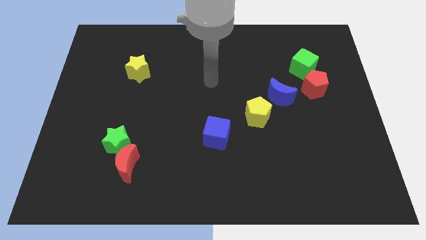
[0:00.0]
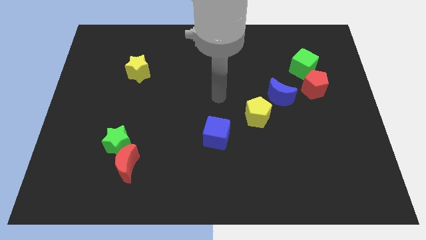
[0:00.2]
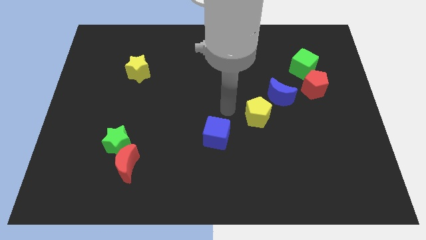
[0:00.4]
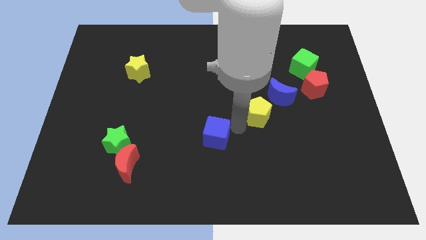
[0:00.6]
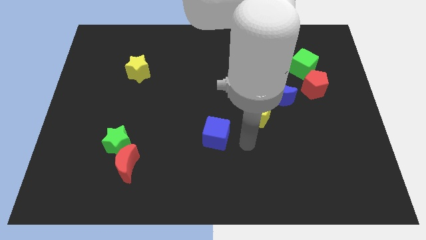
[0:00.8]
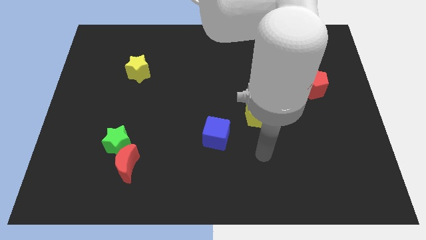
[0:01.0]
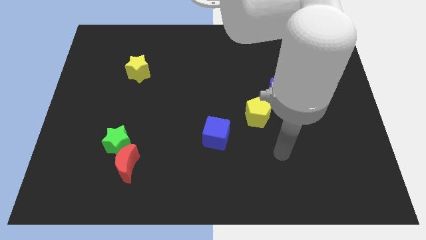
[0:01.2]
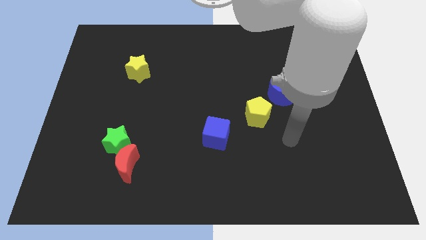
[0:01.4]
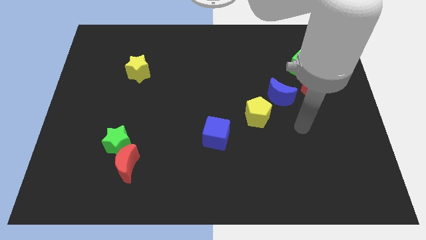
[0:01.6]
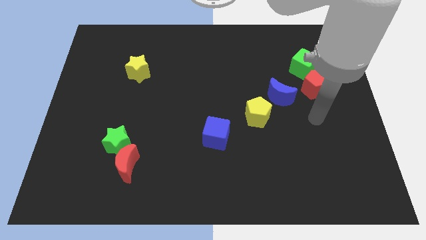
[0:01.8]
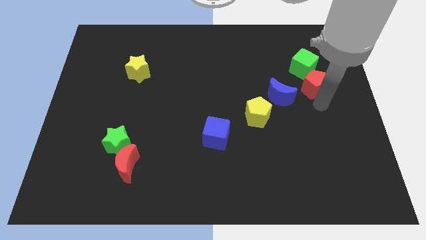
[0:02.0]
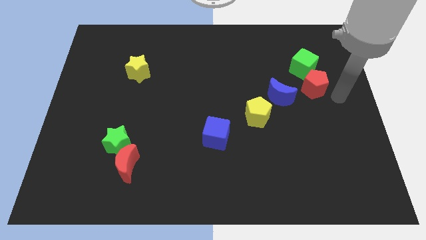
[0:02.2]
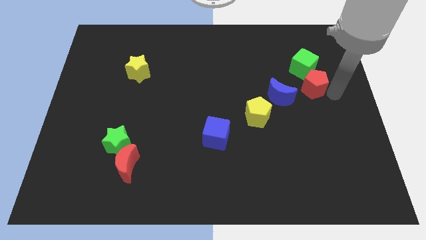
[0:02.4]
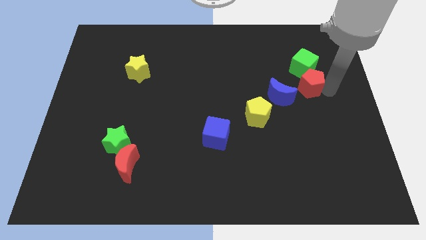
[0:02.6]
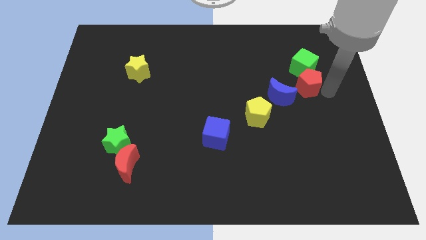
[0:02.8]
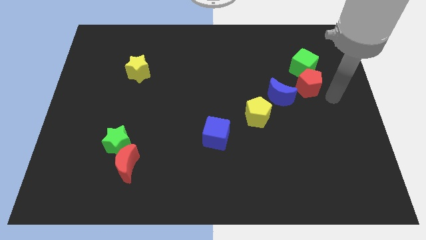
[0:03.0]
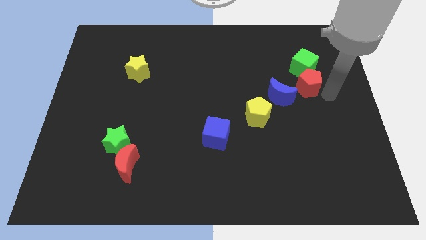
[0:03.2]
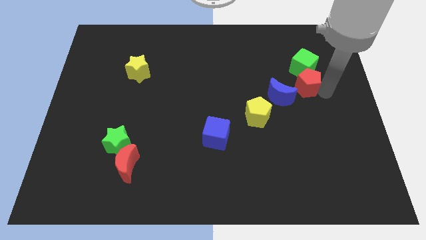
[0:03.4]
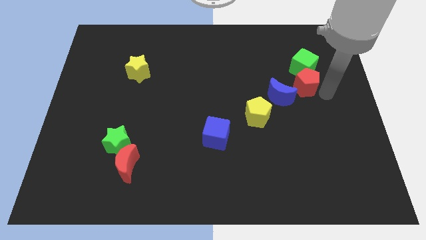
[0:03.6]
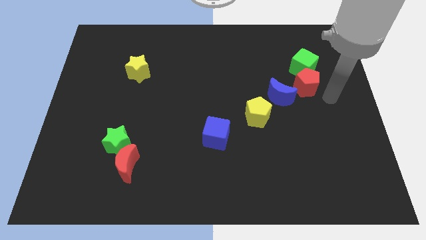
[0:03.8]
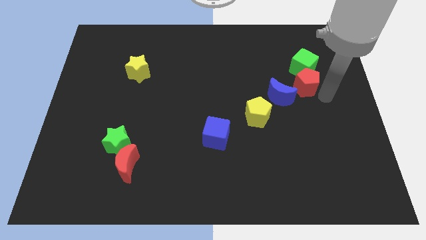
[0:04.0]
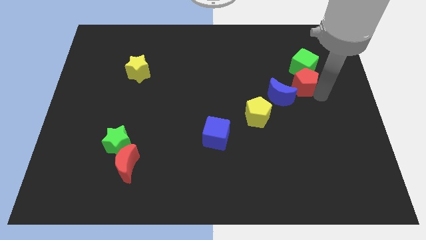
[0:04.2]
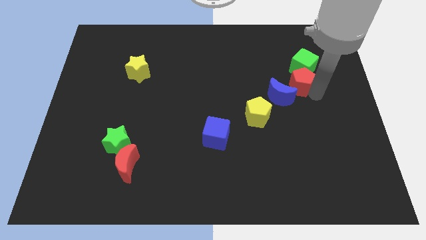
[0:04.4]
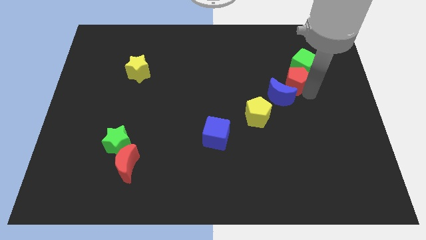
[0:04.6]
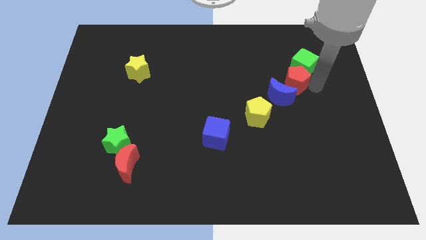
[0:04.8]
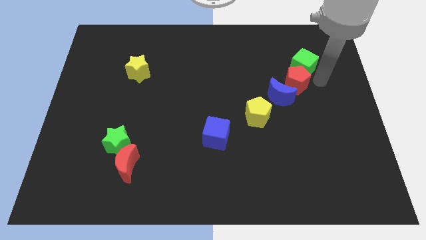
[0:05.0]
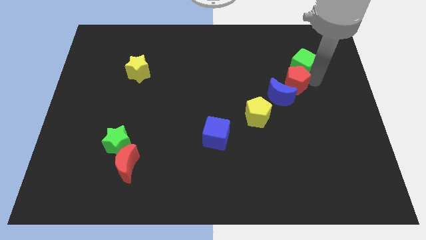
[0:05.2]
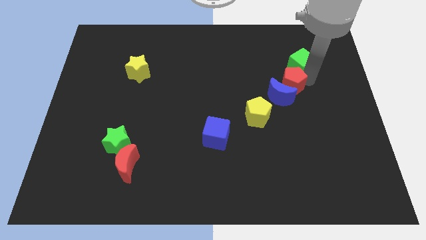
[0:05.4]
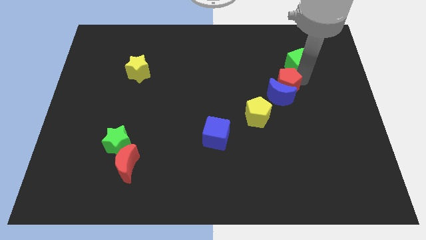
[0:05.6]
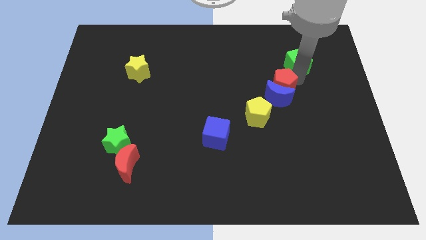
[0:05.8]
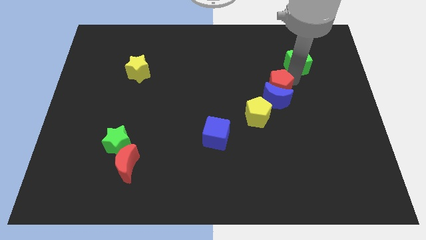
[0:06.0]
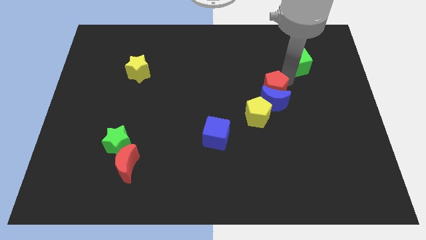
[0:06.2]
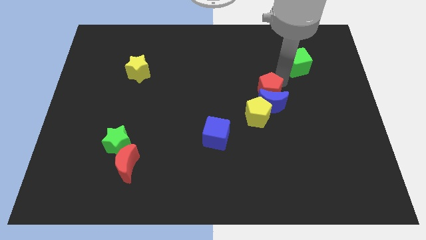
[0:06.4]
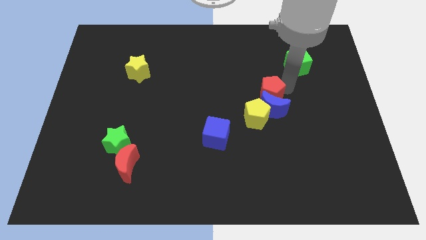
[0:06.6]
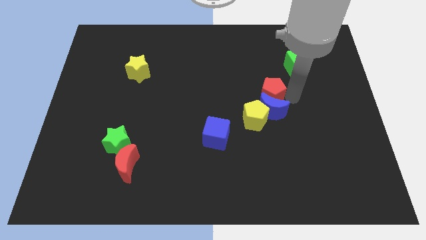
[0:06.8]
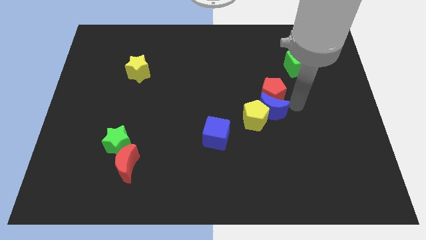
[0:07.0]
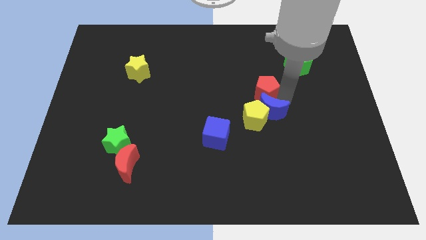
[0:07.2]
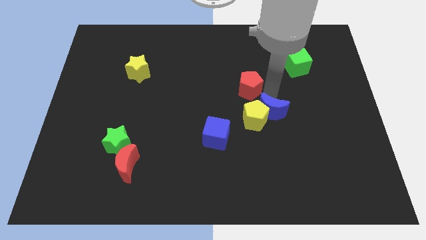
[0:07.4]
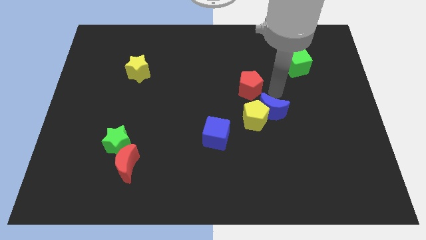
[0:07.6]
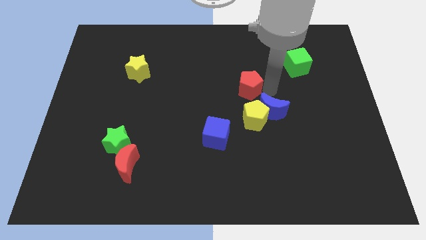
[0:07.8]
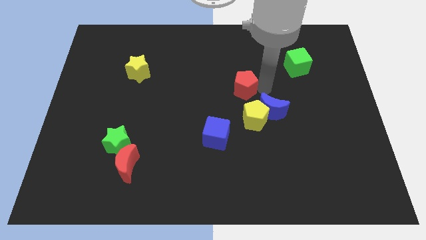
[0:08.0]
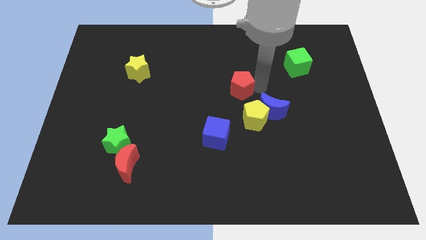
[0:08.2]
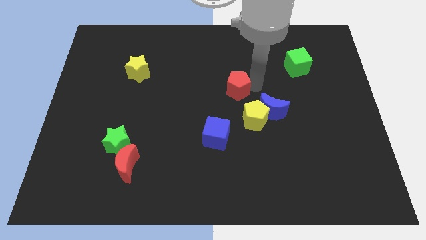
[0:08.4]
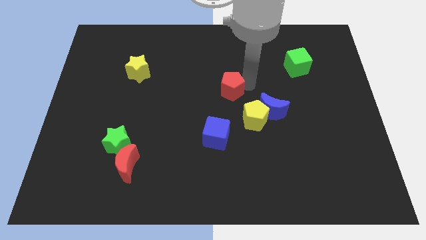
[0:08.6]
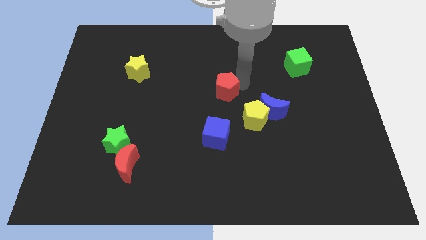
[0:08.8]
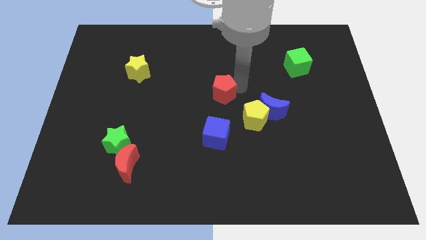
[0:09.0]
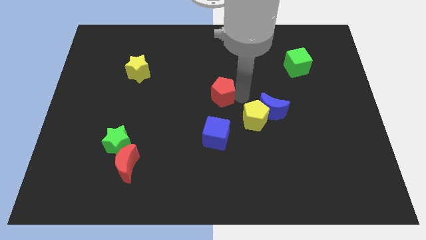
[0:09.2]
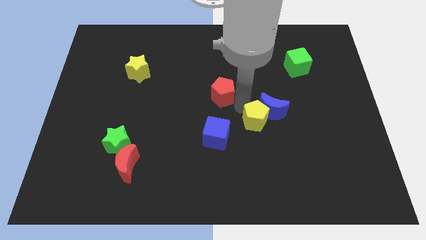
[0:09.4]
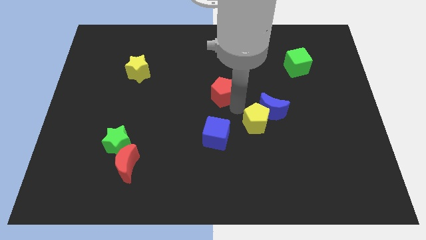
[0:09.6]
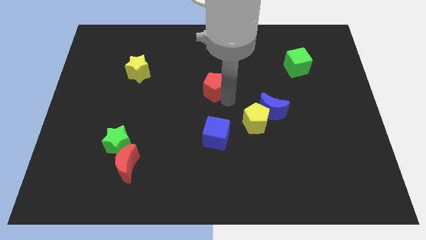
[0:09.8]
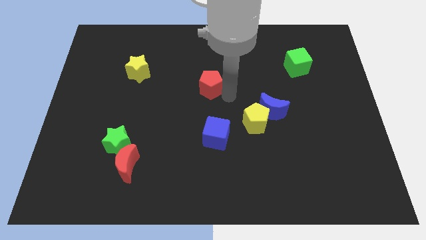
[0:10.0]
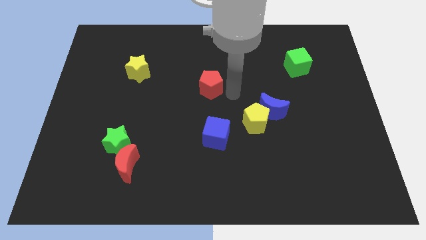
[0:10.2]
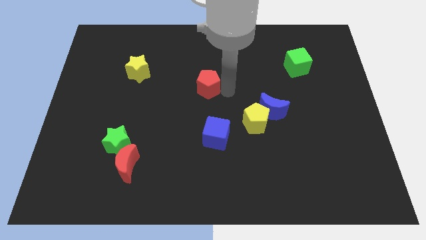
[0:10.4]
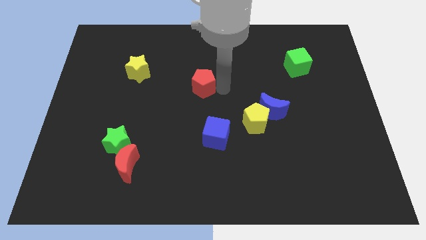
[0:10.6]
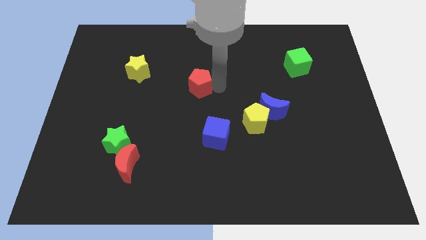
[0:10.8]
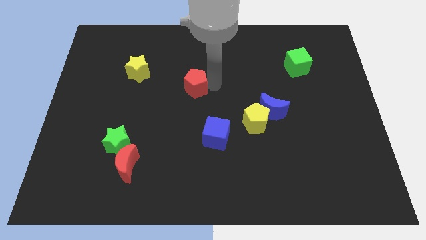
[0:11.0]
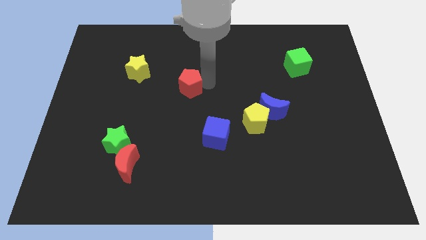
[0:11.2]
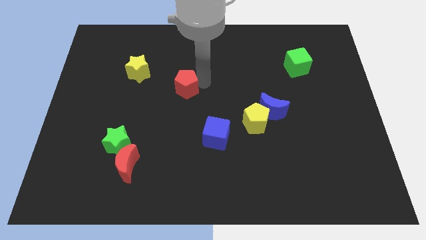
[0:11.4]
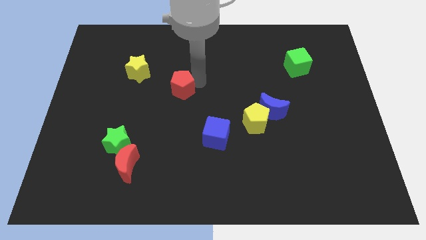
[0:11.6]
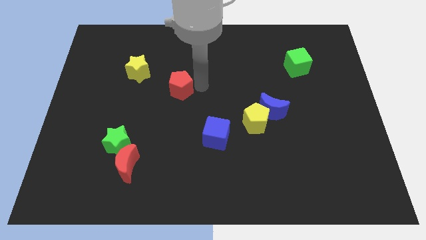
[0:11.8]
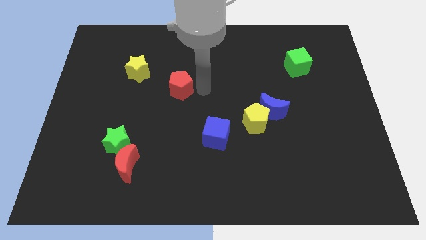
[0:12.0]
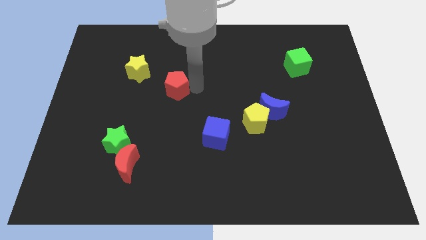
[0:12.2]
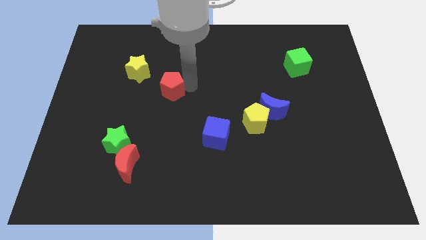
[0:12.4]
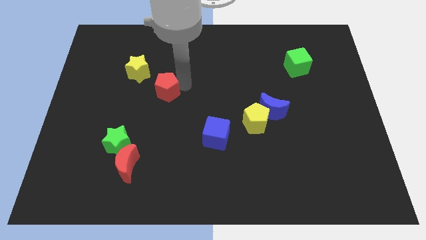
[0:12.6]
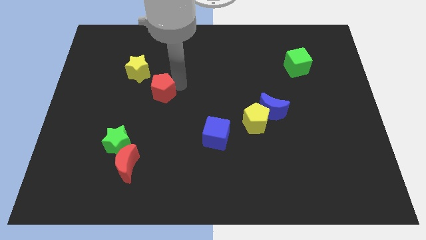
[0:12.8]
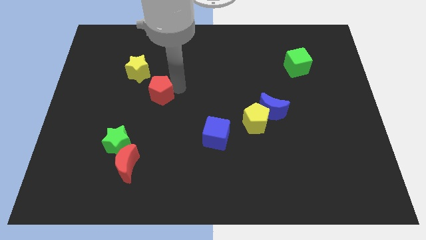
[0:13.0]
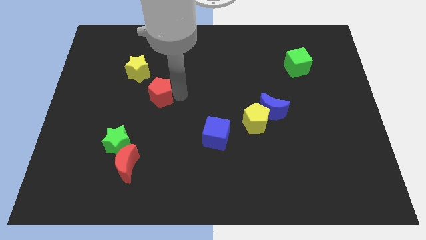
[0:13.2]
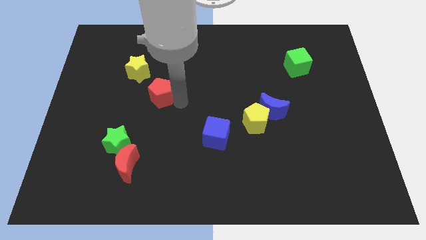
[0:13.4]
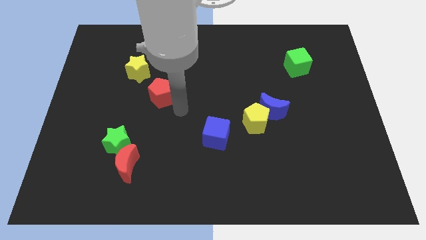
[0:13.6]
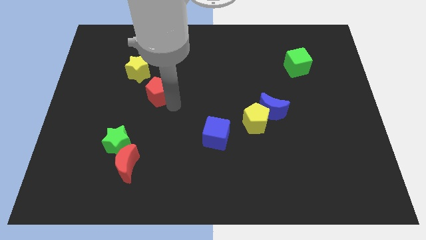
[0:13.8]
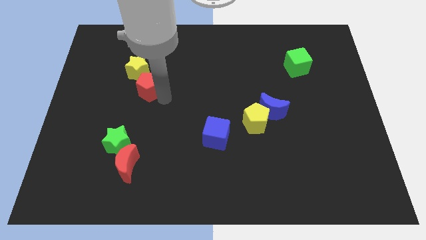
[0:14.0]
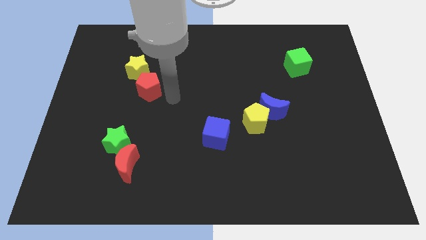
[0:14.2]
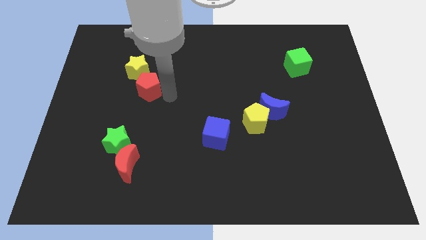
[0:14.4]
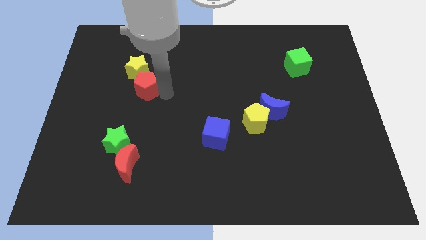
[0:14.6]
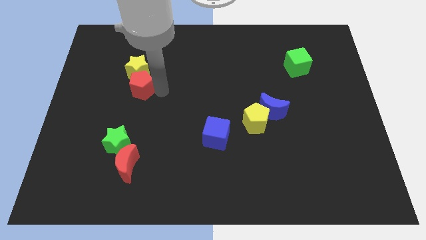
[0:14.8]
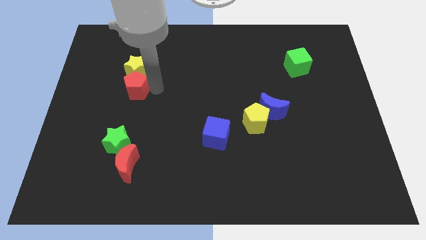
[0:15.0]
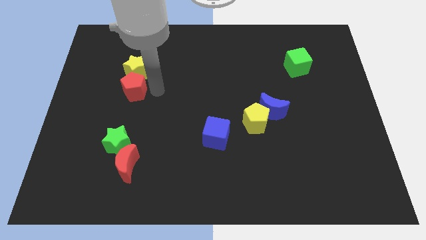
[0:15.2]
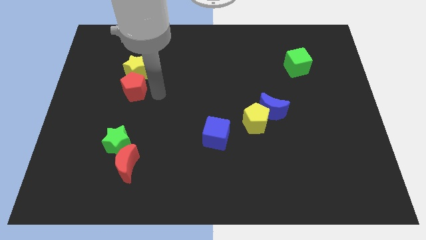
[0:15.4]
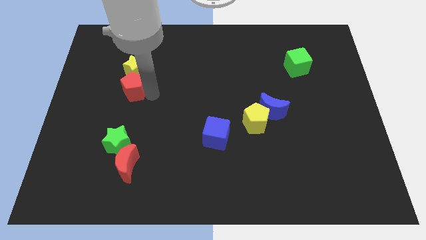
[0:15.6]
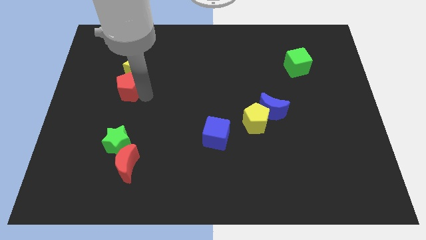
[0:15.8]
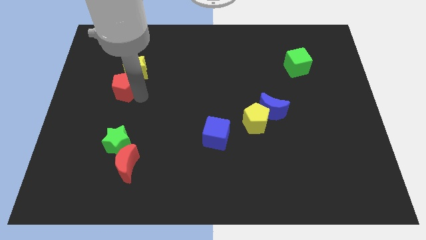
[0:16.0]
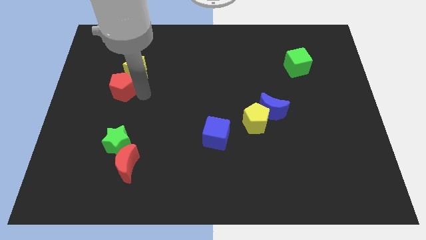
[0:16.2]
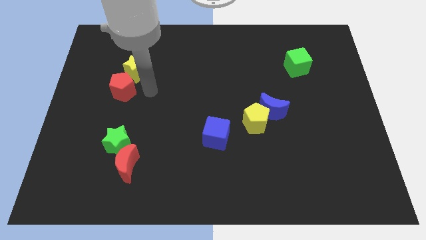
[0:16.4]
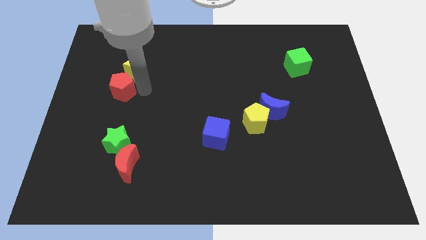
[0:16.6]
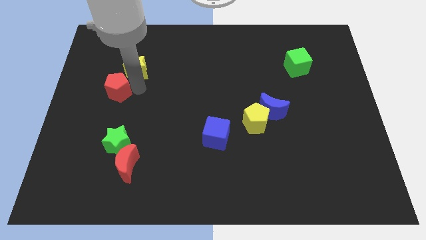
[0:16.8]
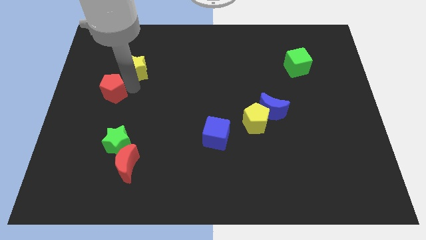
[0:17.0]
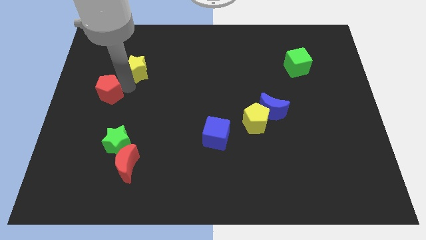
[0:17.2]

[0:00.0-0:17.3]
put the red pentagon to the left side of the board
